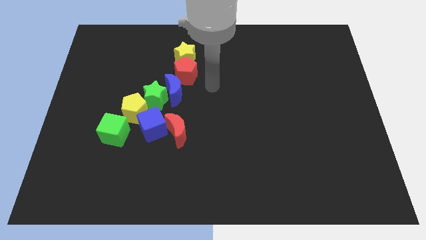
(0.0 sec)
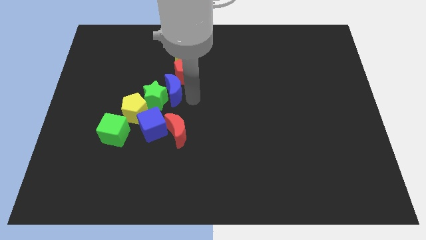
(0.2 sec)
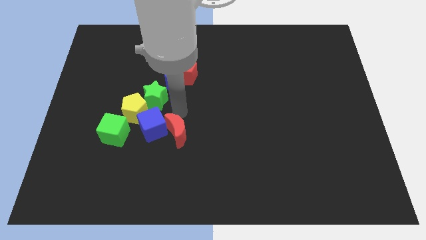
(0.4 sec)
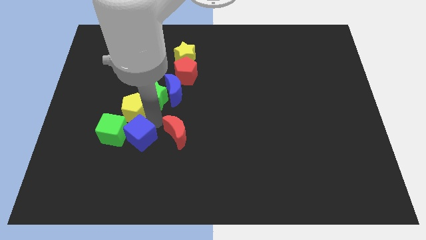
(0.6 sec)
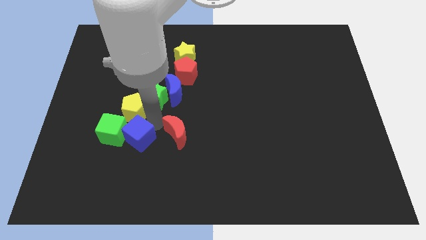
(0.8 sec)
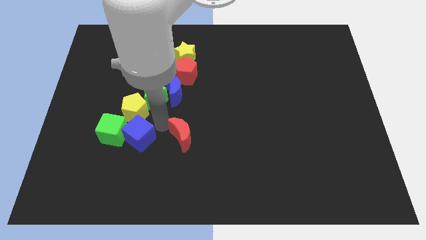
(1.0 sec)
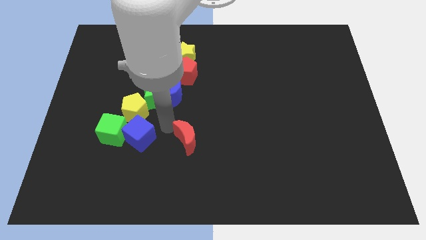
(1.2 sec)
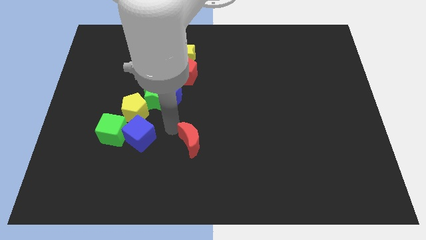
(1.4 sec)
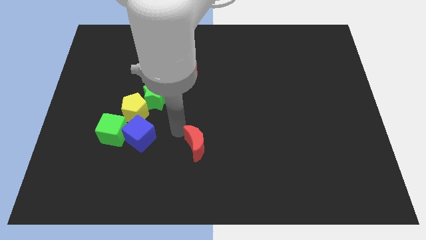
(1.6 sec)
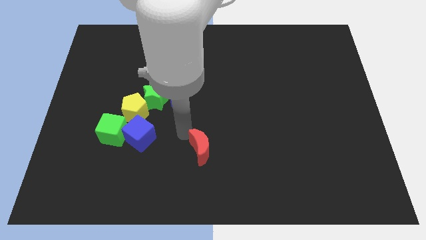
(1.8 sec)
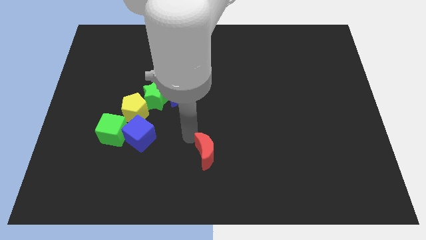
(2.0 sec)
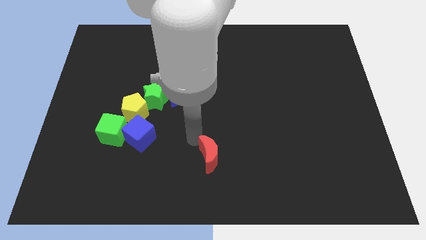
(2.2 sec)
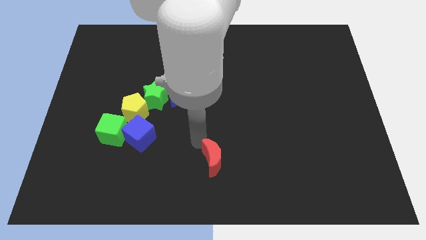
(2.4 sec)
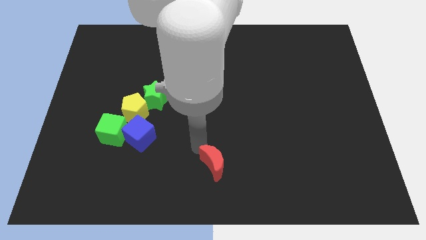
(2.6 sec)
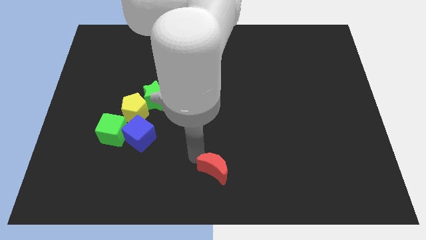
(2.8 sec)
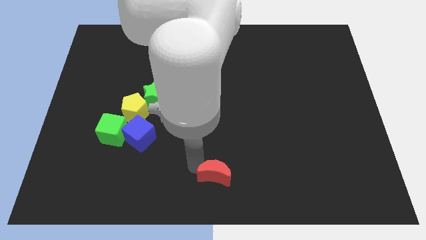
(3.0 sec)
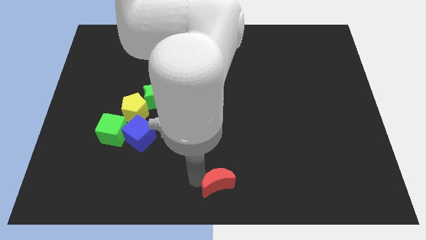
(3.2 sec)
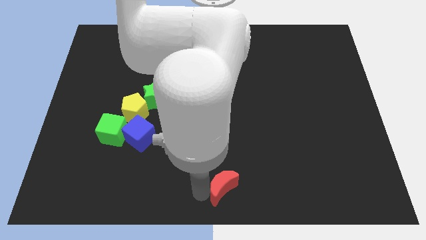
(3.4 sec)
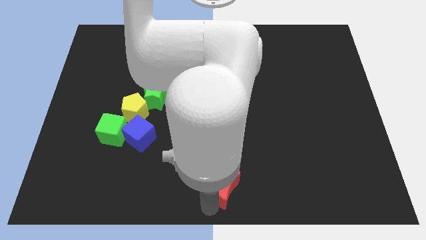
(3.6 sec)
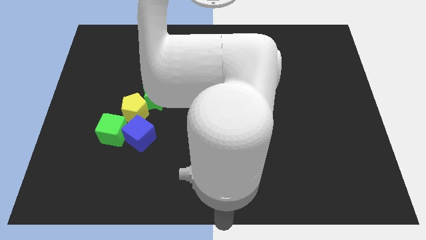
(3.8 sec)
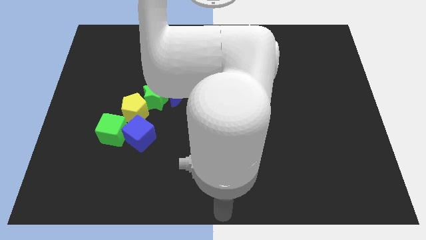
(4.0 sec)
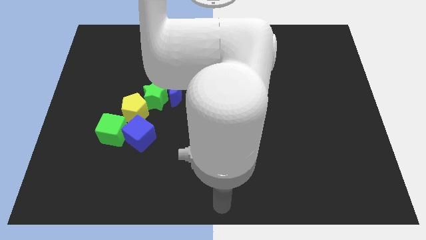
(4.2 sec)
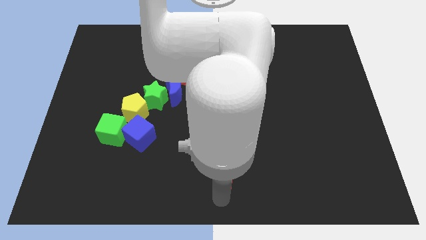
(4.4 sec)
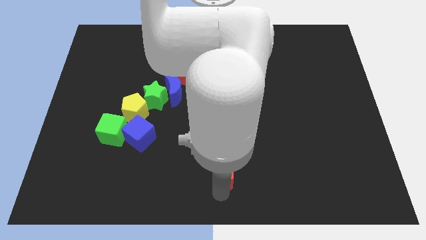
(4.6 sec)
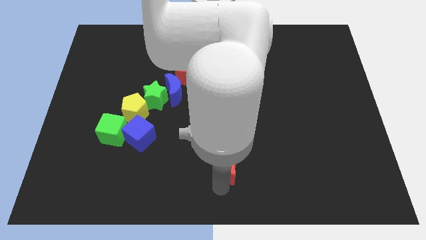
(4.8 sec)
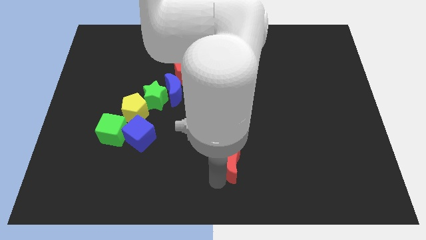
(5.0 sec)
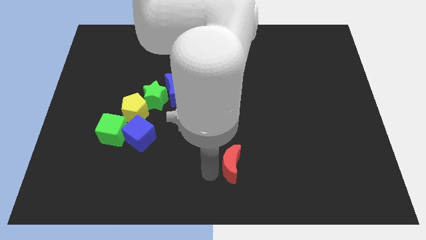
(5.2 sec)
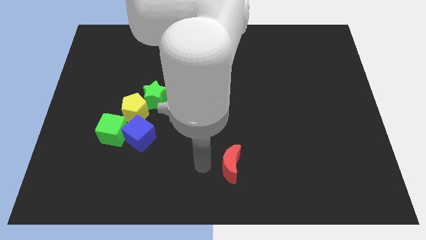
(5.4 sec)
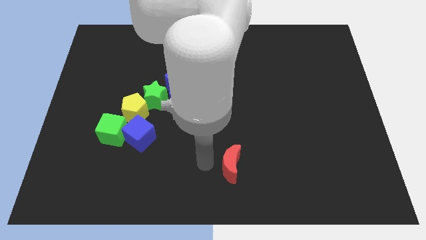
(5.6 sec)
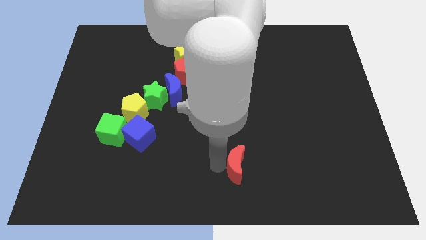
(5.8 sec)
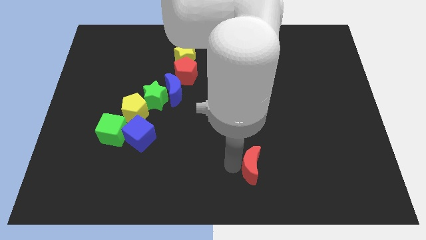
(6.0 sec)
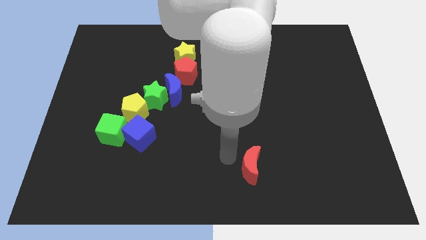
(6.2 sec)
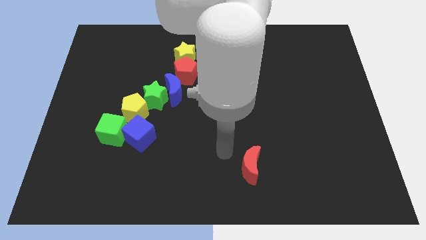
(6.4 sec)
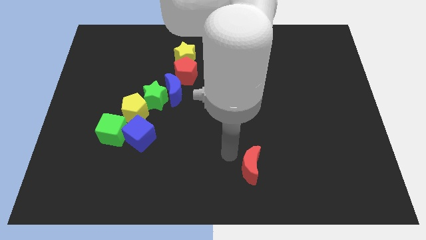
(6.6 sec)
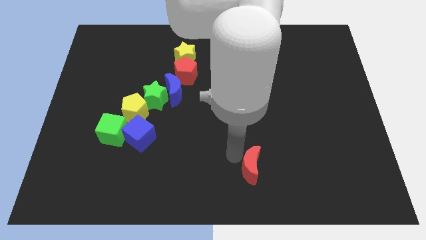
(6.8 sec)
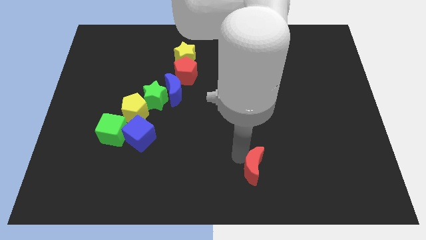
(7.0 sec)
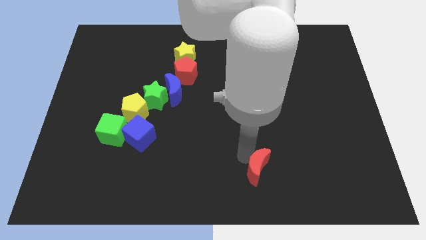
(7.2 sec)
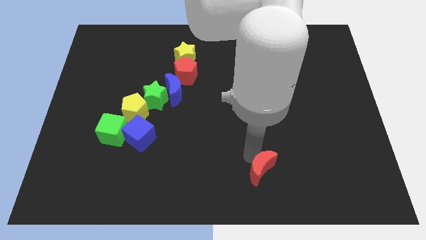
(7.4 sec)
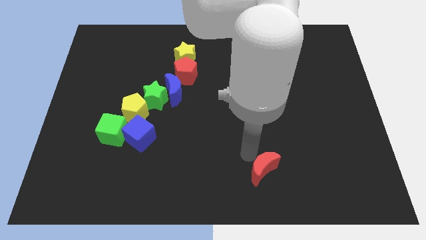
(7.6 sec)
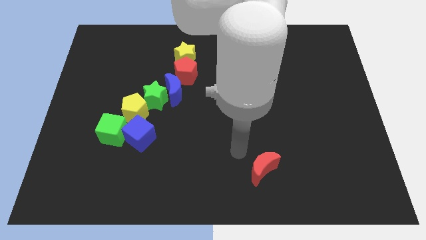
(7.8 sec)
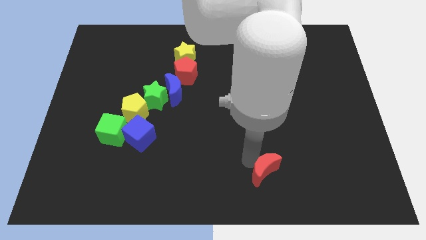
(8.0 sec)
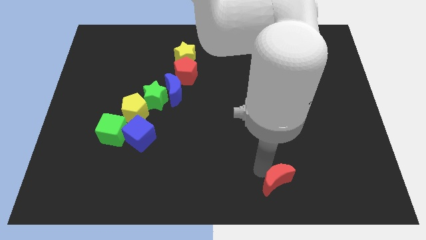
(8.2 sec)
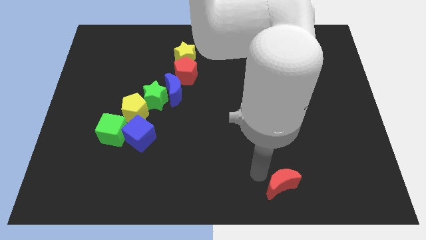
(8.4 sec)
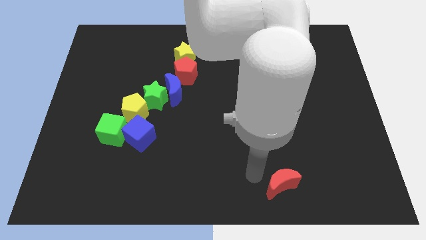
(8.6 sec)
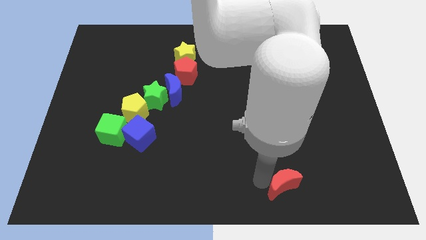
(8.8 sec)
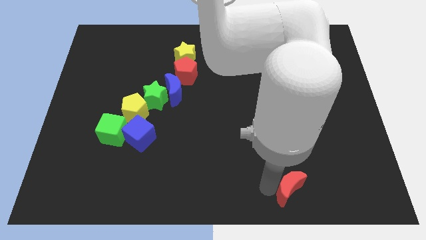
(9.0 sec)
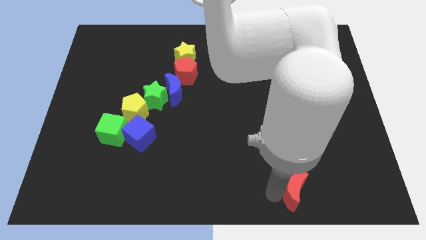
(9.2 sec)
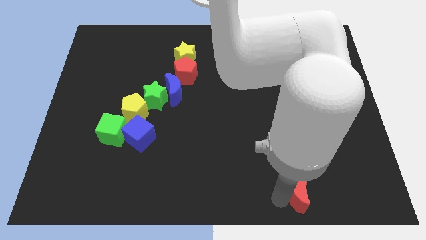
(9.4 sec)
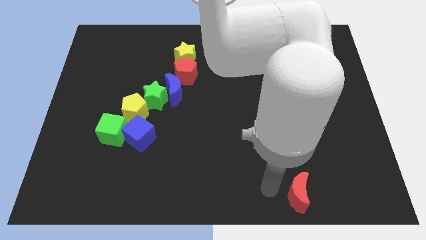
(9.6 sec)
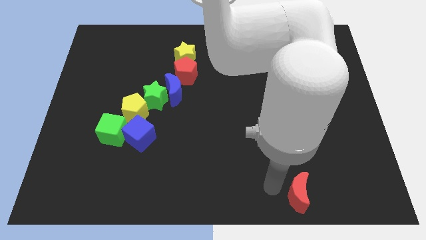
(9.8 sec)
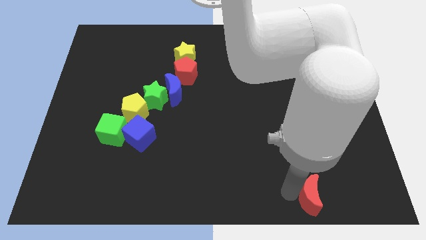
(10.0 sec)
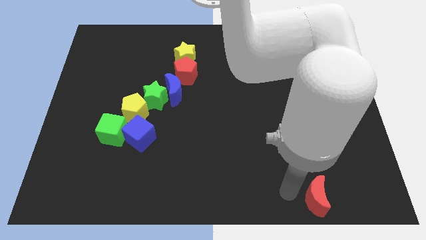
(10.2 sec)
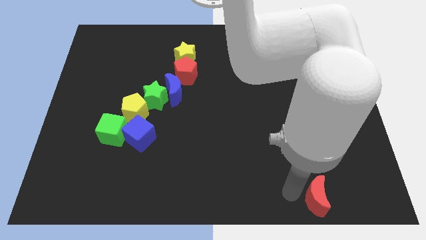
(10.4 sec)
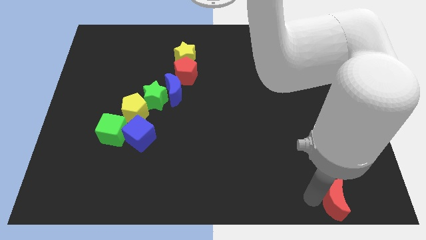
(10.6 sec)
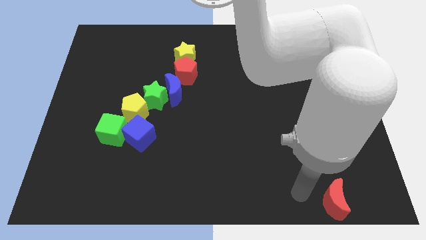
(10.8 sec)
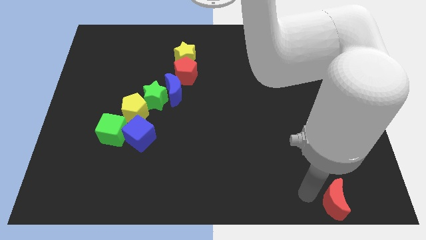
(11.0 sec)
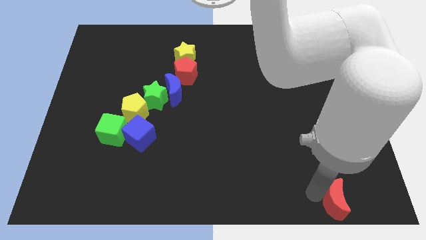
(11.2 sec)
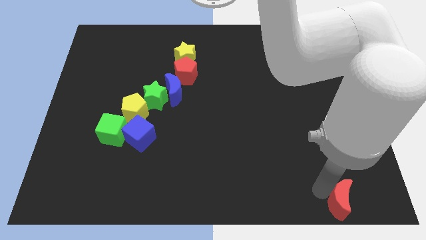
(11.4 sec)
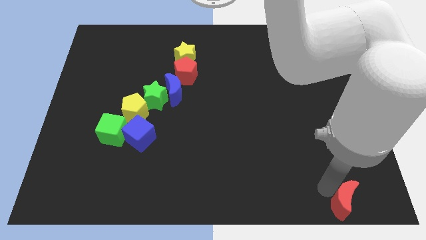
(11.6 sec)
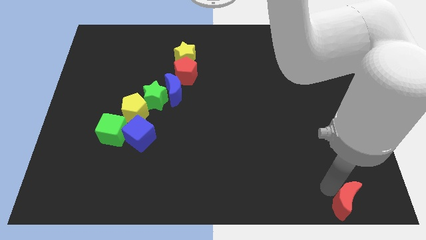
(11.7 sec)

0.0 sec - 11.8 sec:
slide the red moon to the bottom right

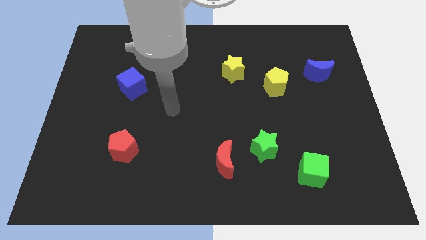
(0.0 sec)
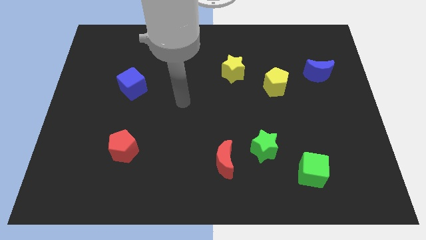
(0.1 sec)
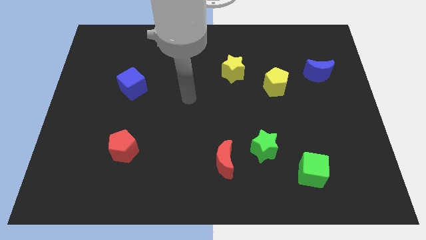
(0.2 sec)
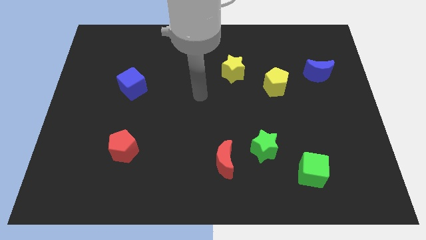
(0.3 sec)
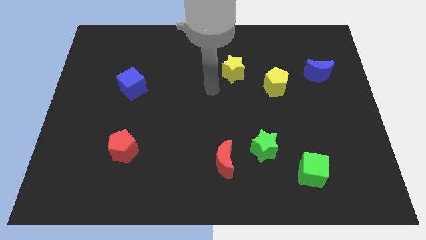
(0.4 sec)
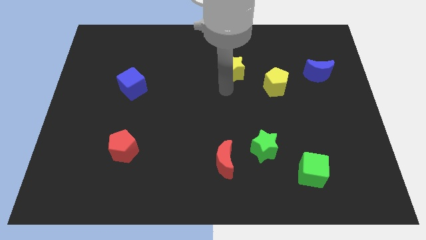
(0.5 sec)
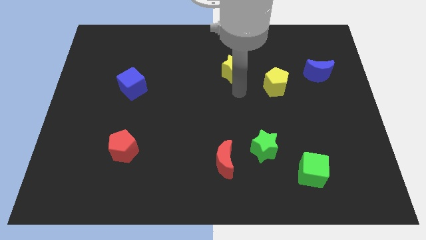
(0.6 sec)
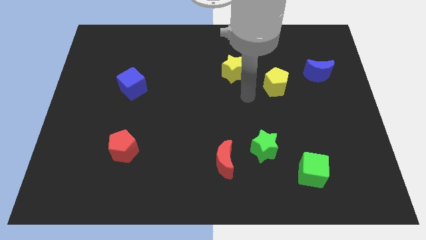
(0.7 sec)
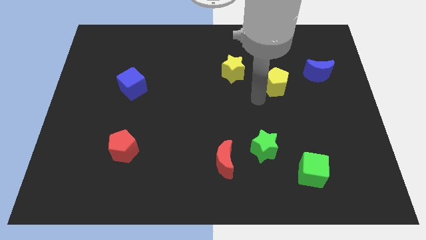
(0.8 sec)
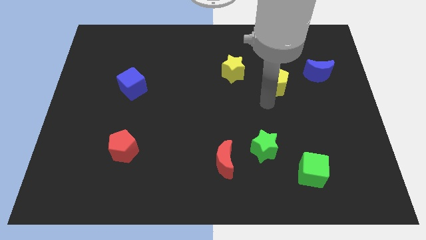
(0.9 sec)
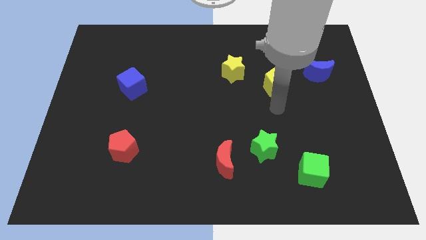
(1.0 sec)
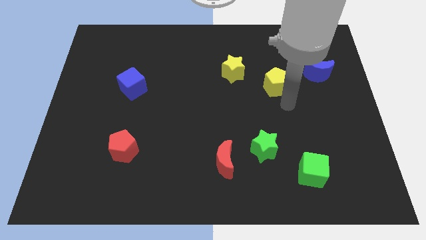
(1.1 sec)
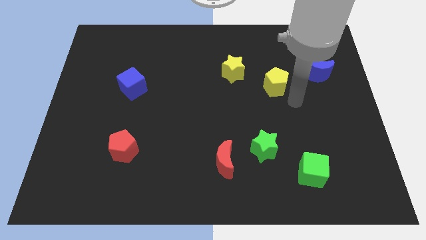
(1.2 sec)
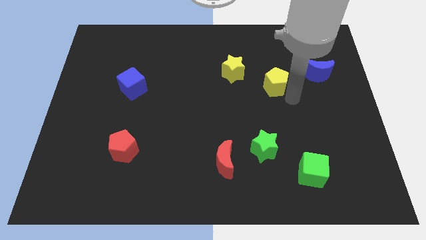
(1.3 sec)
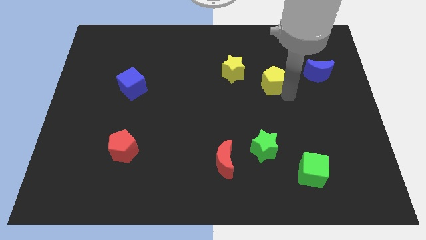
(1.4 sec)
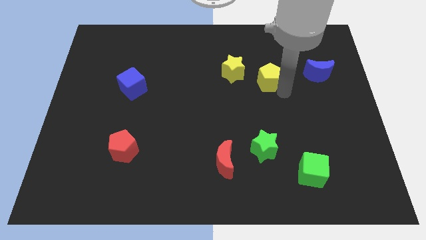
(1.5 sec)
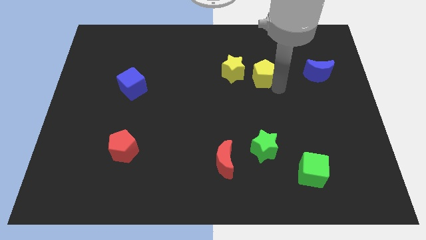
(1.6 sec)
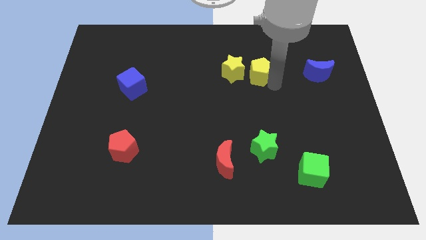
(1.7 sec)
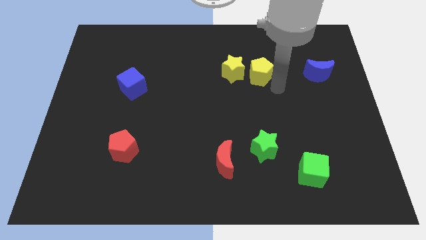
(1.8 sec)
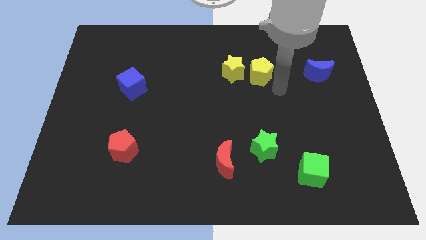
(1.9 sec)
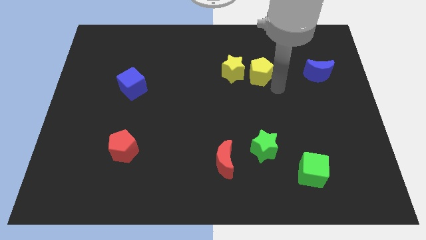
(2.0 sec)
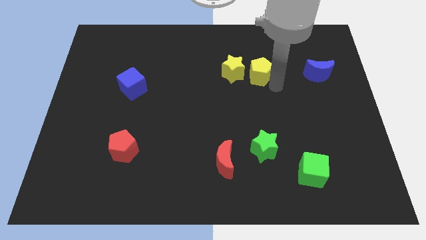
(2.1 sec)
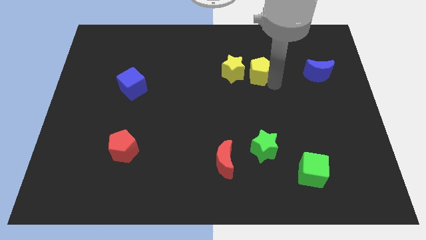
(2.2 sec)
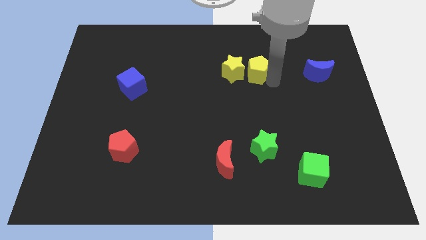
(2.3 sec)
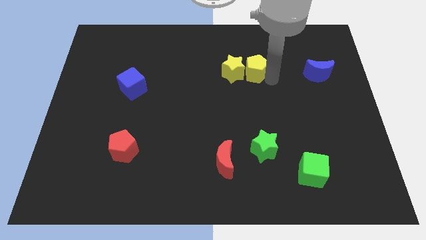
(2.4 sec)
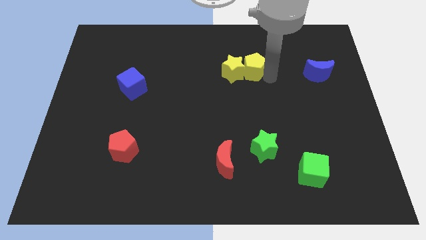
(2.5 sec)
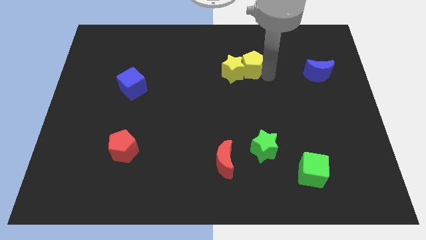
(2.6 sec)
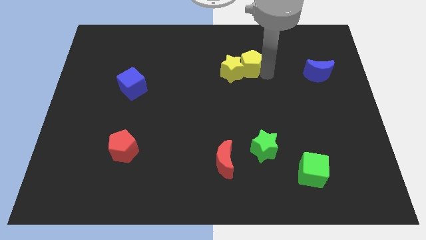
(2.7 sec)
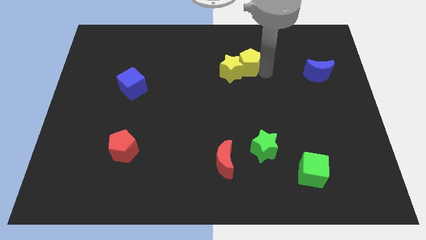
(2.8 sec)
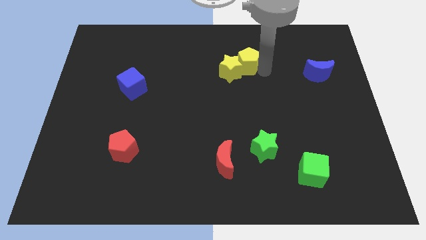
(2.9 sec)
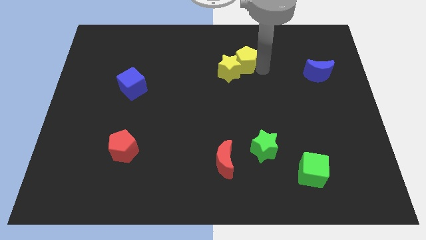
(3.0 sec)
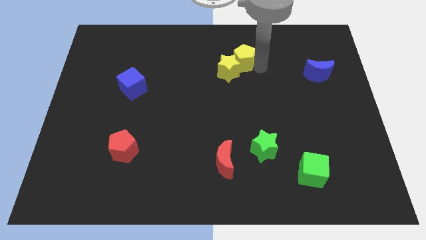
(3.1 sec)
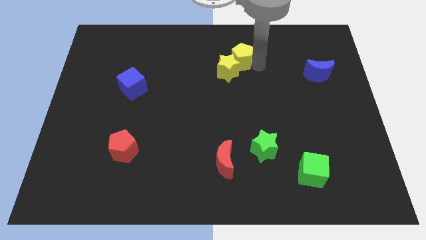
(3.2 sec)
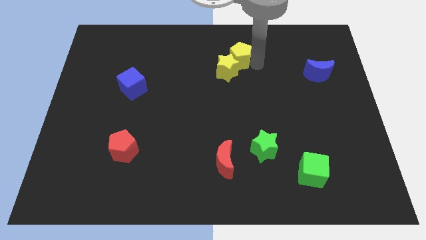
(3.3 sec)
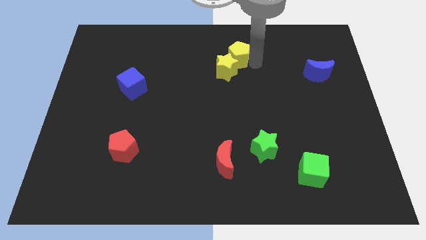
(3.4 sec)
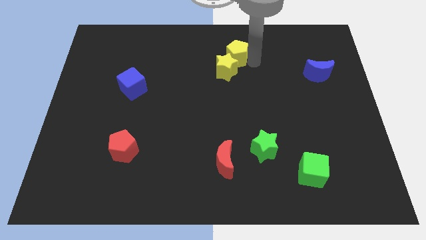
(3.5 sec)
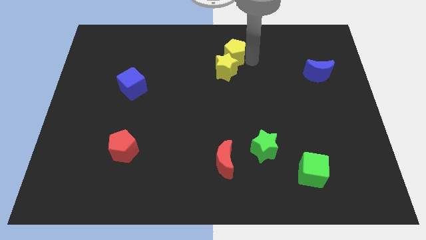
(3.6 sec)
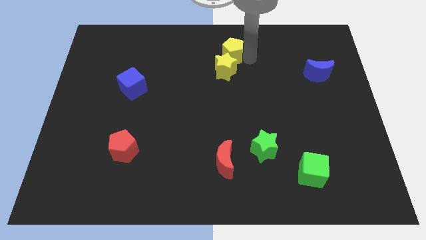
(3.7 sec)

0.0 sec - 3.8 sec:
put the yellow pentagon to the top side
